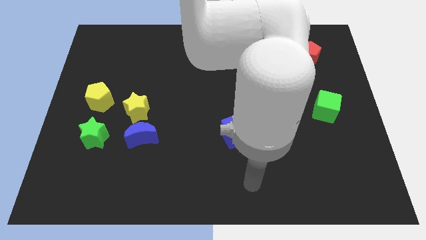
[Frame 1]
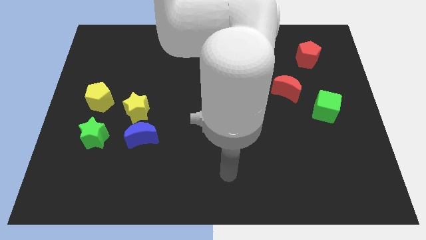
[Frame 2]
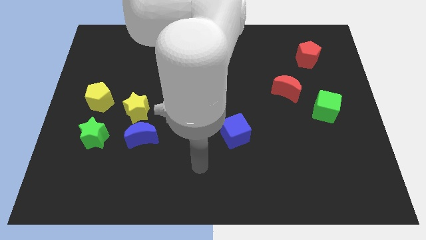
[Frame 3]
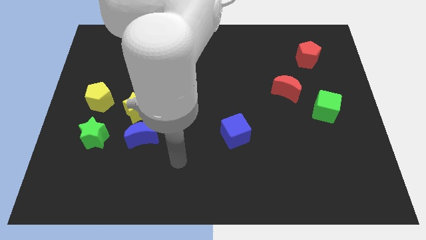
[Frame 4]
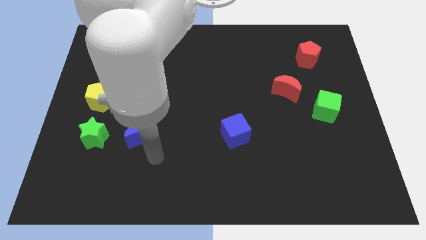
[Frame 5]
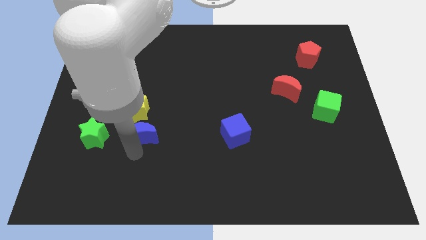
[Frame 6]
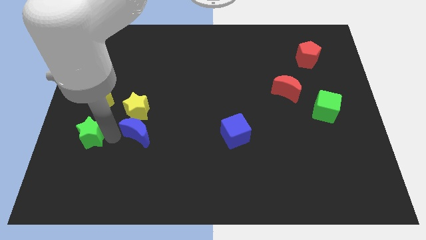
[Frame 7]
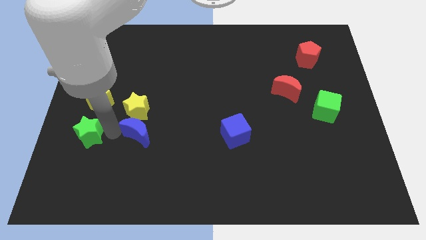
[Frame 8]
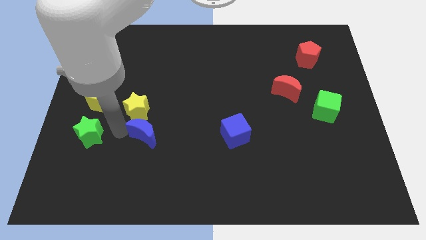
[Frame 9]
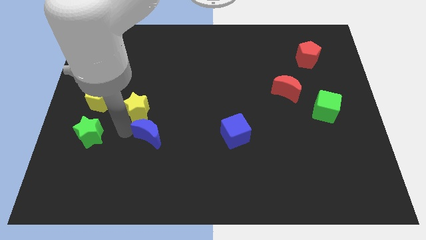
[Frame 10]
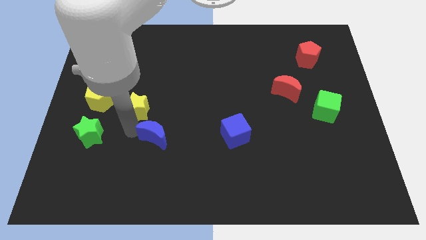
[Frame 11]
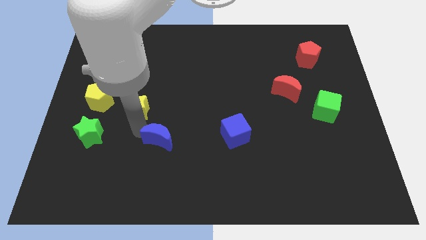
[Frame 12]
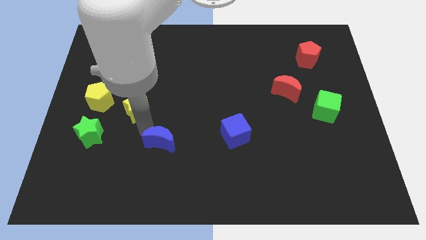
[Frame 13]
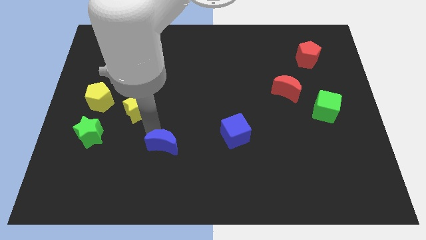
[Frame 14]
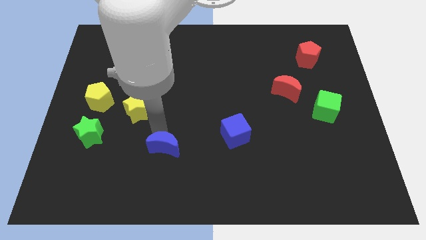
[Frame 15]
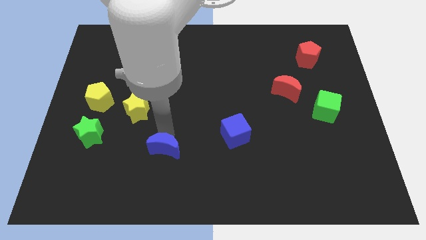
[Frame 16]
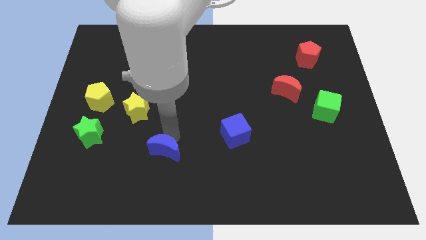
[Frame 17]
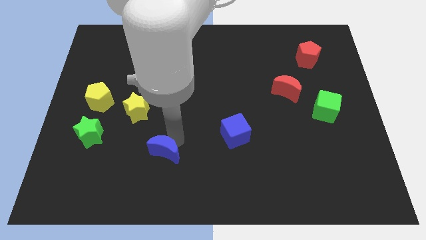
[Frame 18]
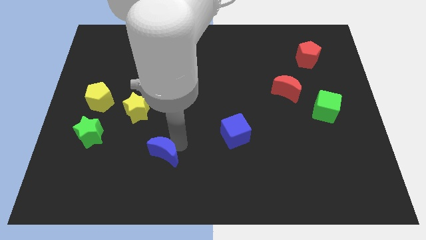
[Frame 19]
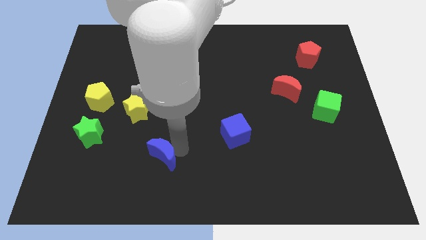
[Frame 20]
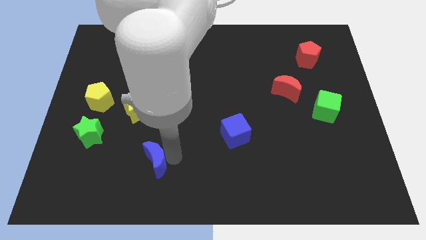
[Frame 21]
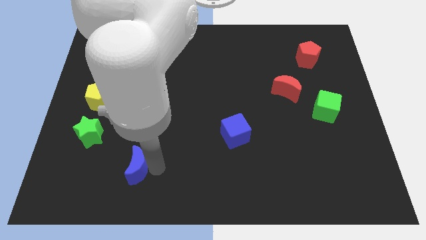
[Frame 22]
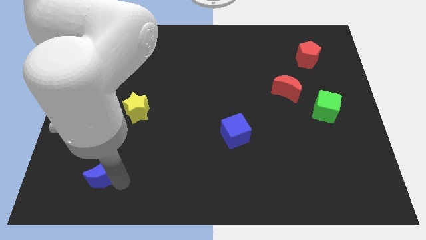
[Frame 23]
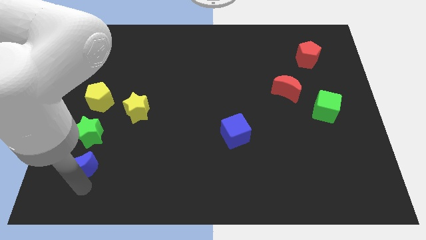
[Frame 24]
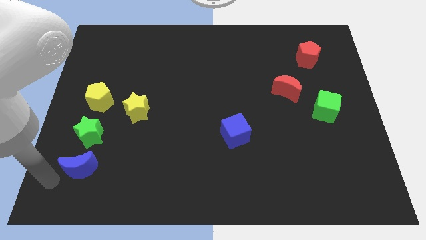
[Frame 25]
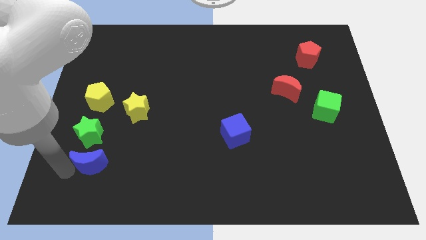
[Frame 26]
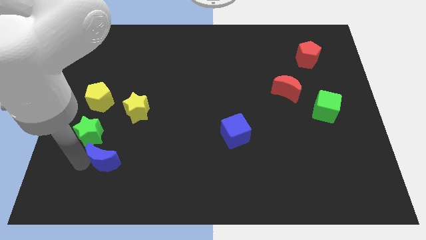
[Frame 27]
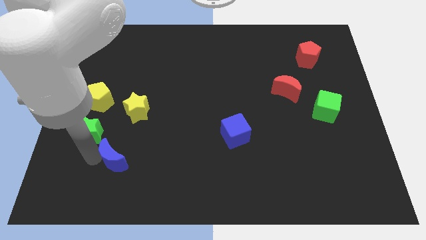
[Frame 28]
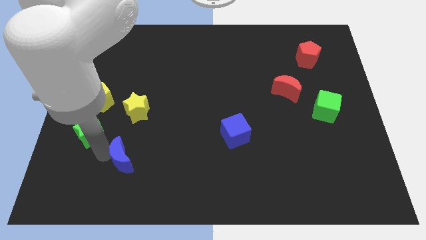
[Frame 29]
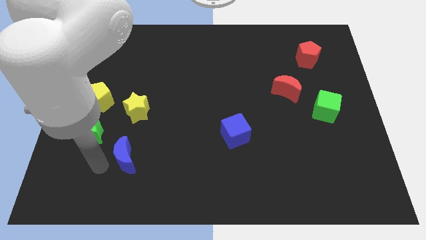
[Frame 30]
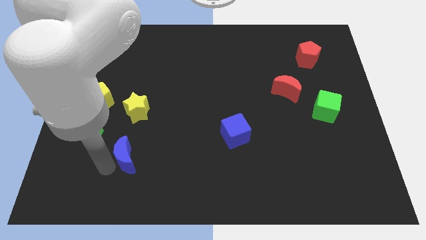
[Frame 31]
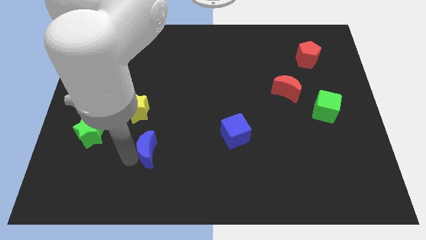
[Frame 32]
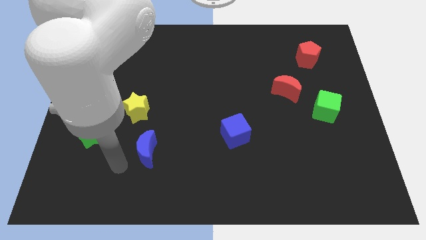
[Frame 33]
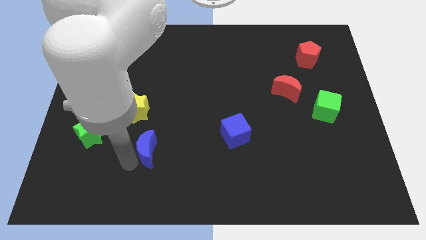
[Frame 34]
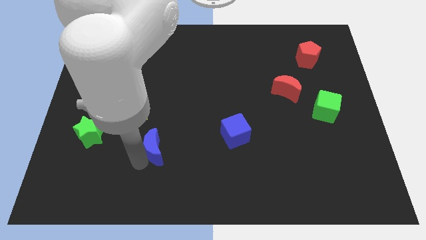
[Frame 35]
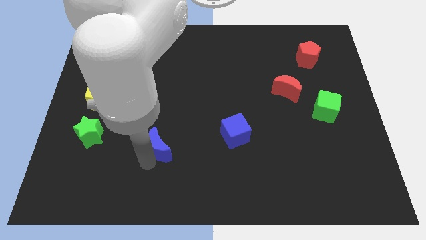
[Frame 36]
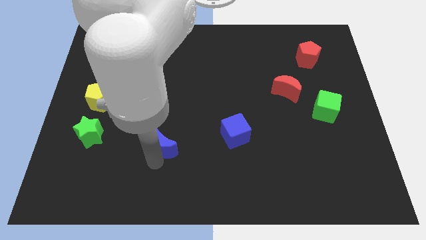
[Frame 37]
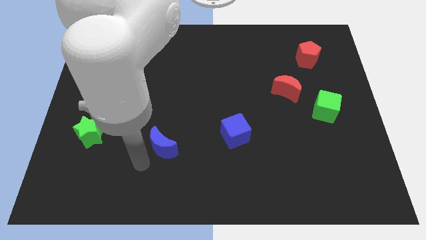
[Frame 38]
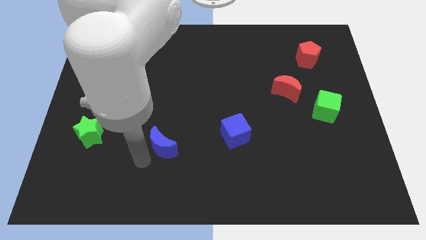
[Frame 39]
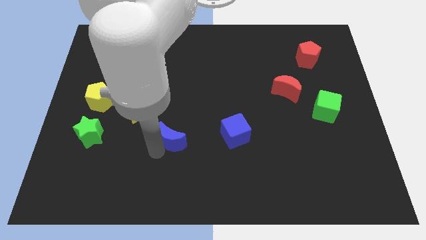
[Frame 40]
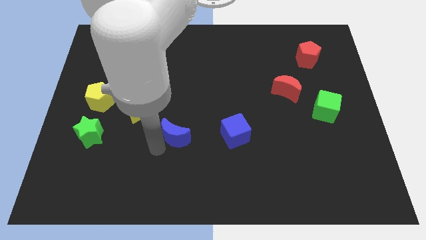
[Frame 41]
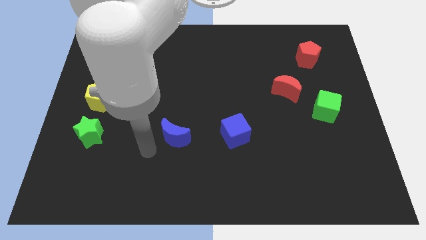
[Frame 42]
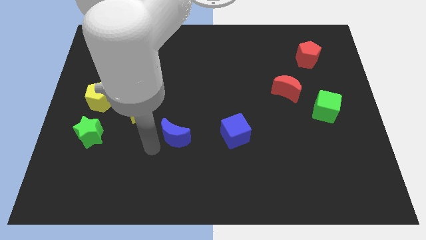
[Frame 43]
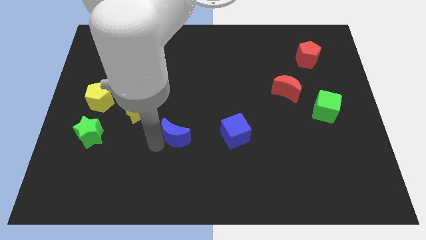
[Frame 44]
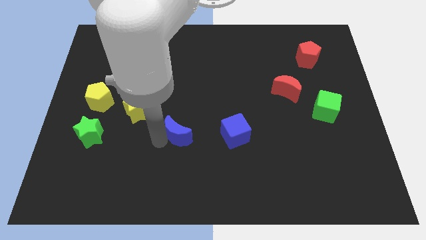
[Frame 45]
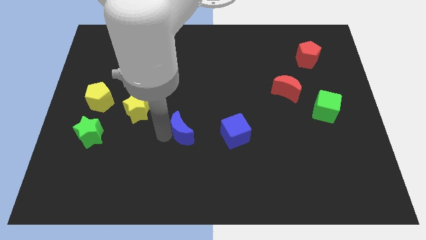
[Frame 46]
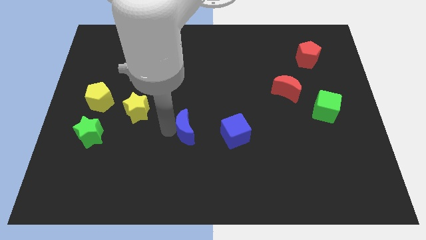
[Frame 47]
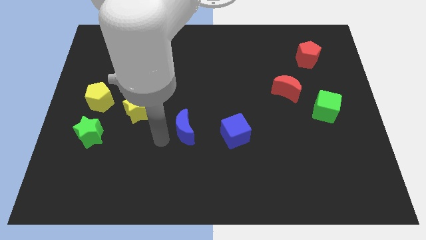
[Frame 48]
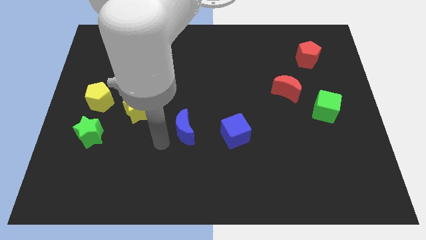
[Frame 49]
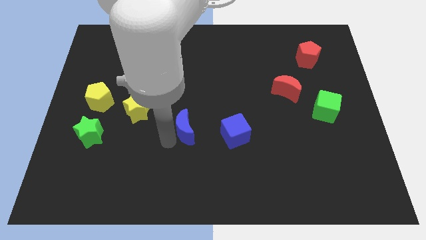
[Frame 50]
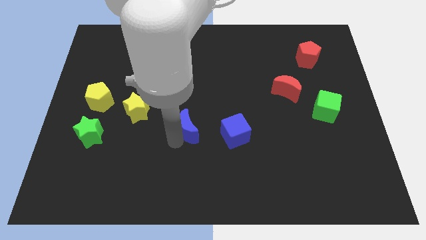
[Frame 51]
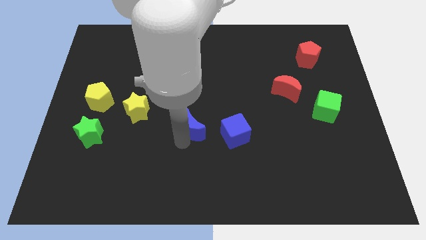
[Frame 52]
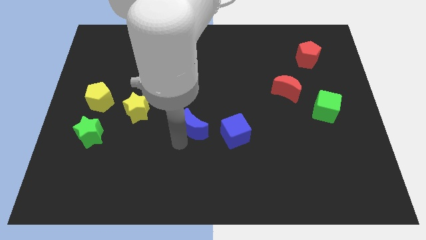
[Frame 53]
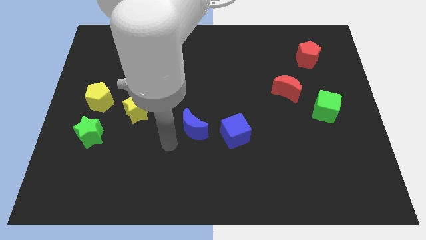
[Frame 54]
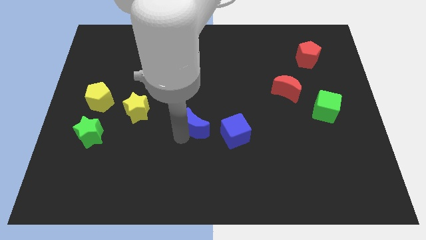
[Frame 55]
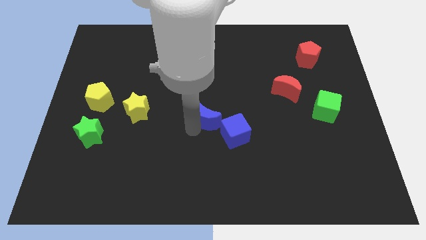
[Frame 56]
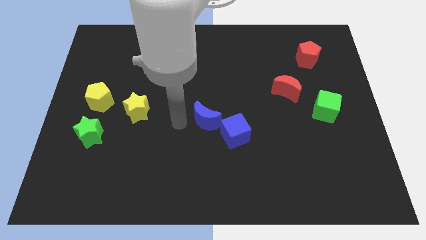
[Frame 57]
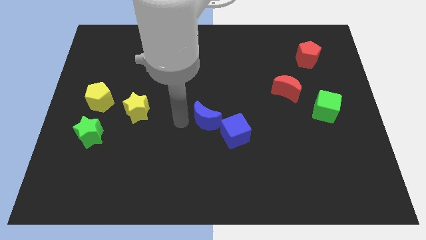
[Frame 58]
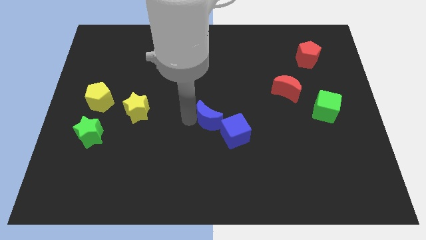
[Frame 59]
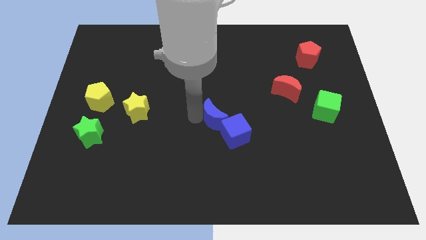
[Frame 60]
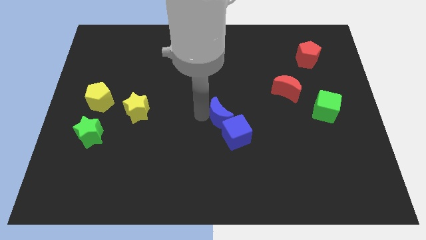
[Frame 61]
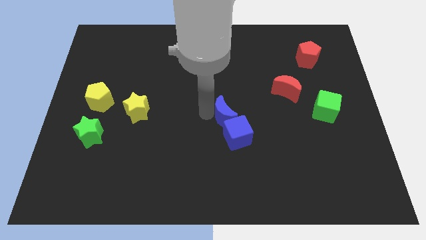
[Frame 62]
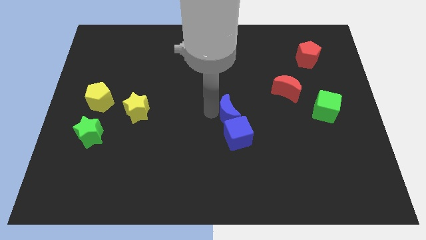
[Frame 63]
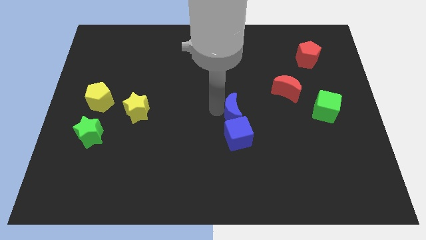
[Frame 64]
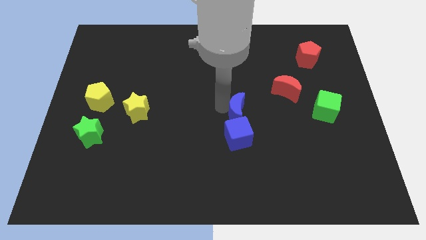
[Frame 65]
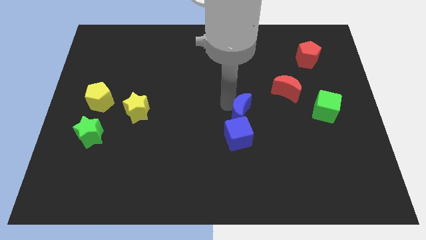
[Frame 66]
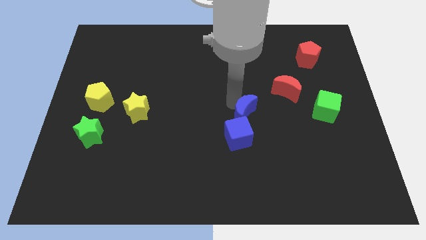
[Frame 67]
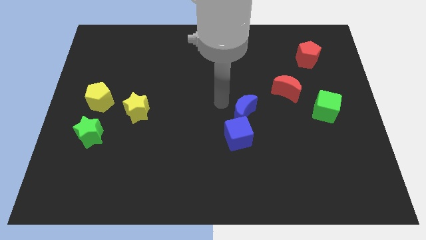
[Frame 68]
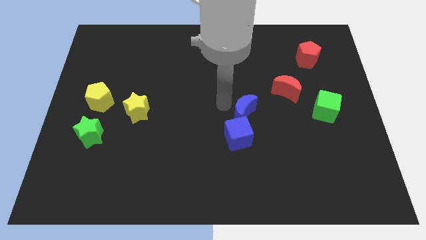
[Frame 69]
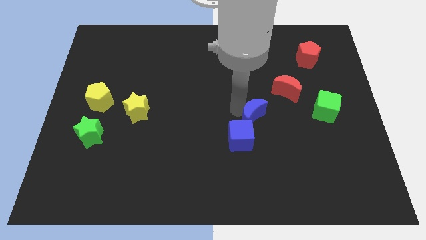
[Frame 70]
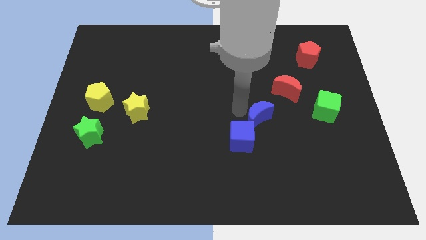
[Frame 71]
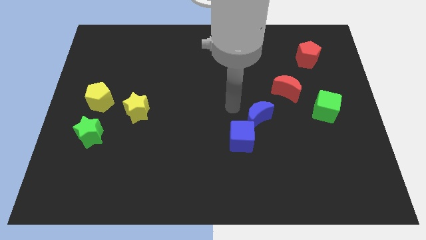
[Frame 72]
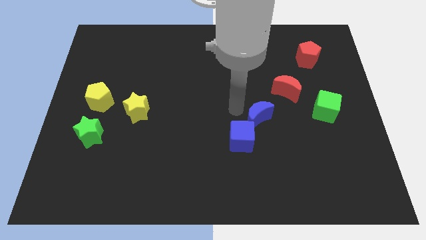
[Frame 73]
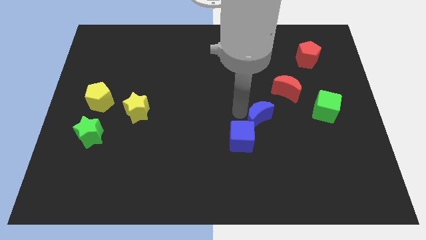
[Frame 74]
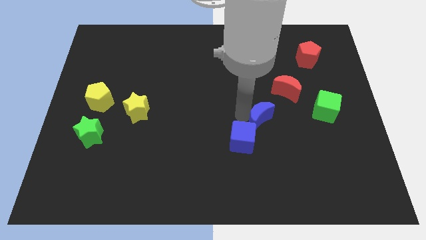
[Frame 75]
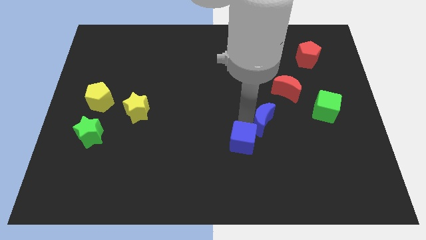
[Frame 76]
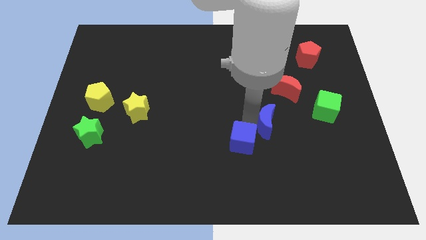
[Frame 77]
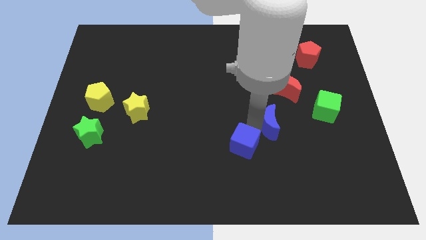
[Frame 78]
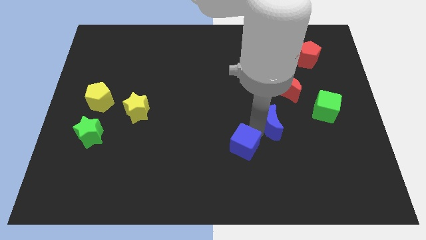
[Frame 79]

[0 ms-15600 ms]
push the blue moon below the red moon
